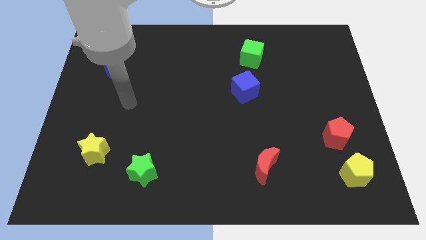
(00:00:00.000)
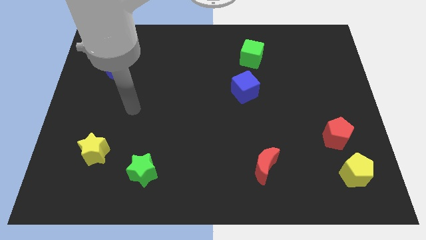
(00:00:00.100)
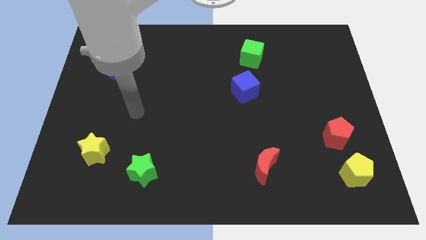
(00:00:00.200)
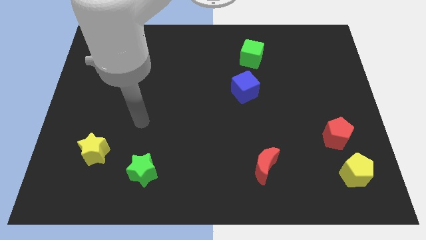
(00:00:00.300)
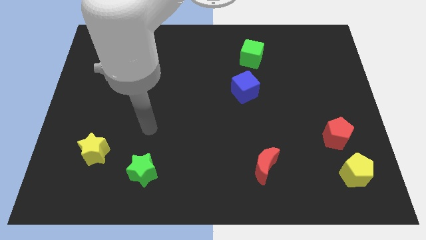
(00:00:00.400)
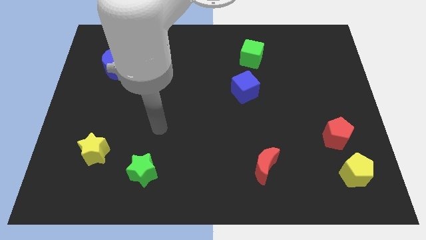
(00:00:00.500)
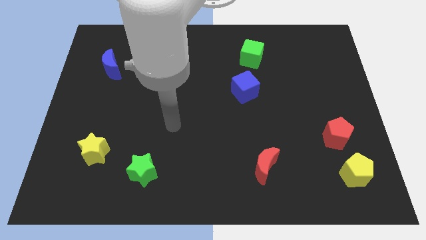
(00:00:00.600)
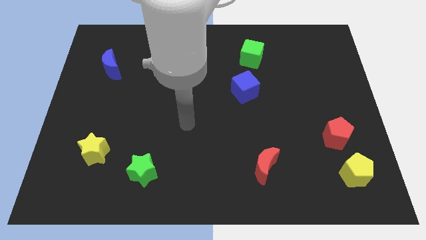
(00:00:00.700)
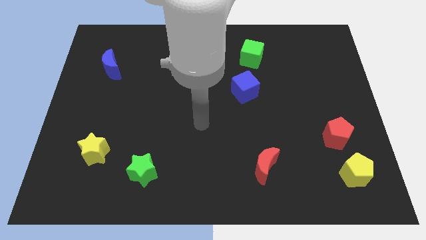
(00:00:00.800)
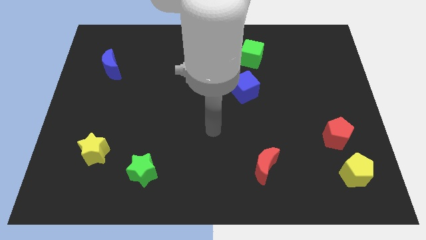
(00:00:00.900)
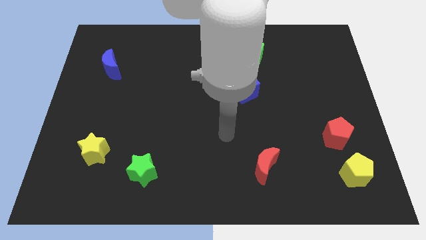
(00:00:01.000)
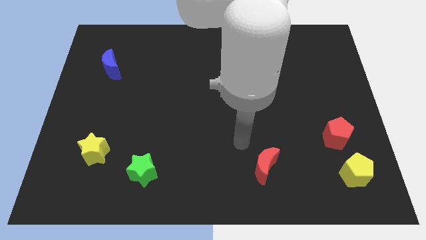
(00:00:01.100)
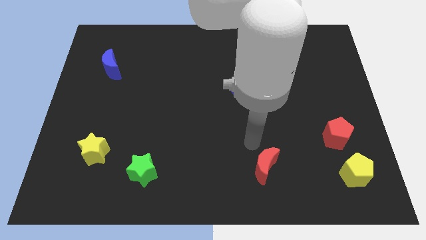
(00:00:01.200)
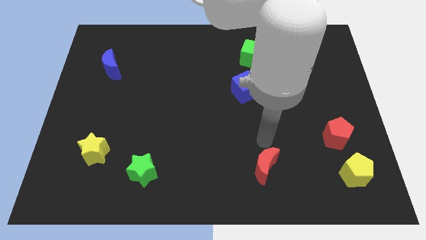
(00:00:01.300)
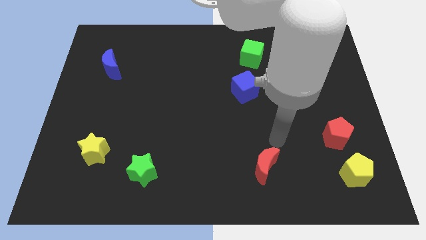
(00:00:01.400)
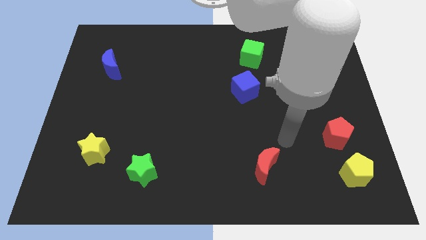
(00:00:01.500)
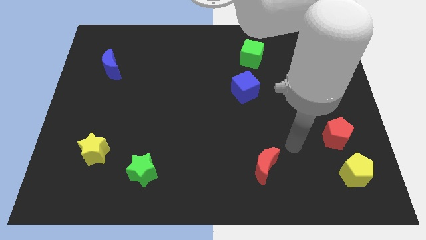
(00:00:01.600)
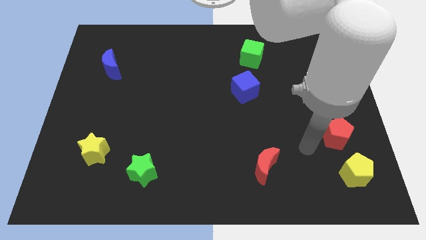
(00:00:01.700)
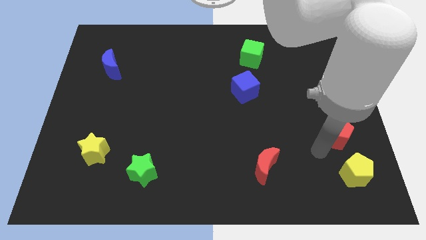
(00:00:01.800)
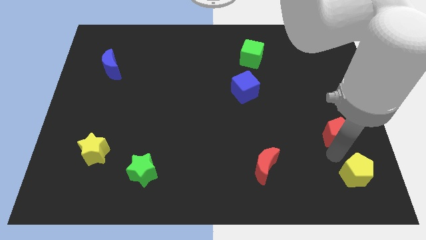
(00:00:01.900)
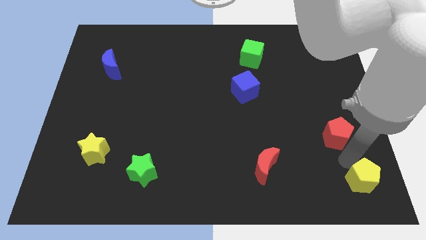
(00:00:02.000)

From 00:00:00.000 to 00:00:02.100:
pull the red pentagon apart from the yellow pentagon

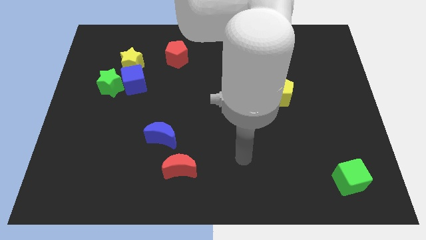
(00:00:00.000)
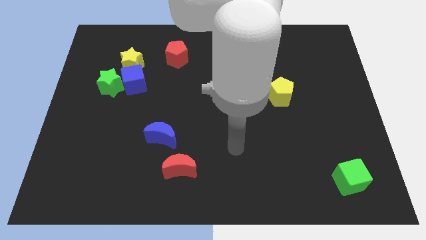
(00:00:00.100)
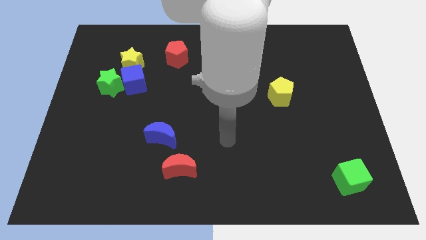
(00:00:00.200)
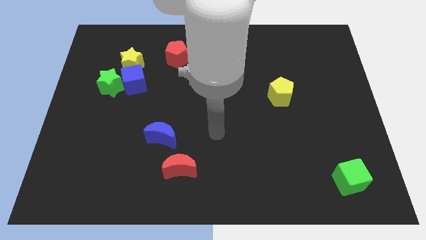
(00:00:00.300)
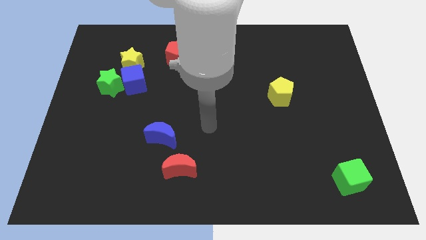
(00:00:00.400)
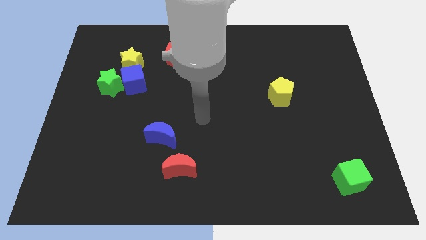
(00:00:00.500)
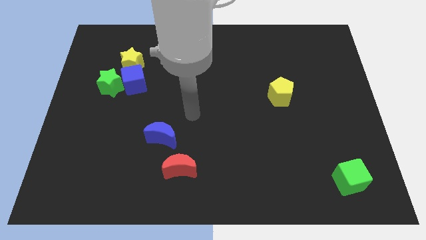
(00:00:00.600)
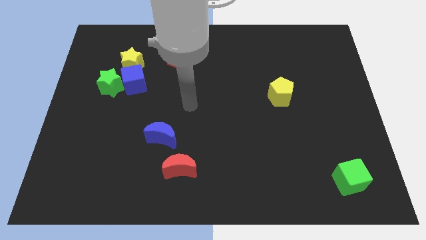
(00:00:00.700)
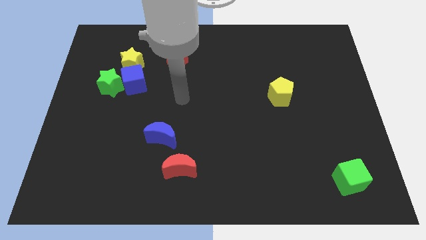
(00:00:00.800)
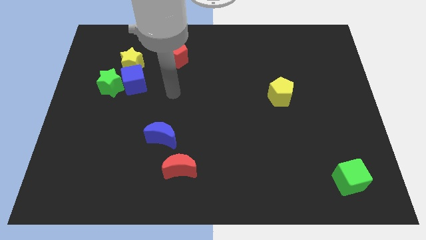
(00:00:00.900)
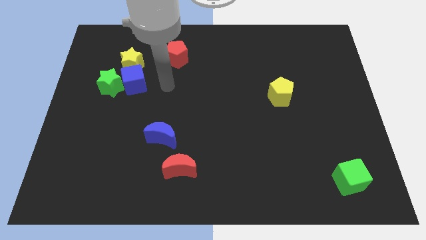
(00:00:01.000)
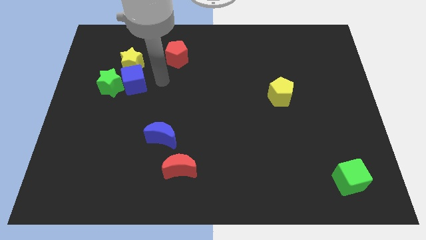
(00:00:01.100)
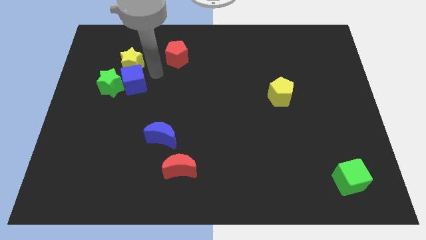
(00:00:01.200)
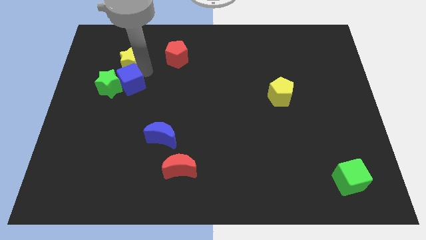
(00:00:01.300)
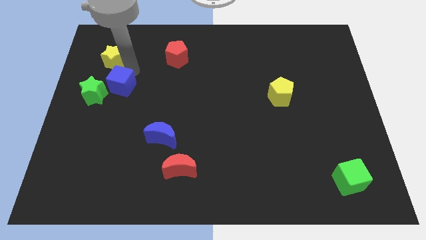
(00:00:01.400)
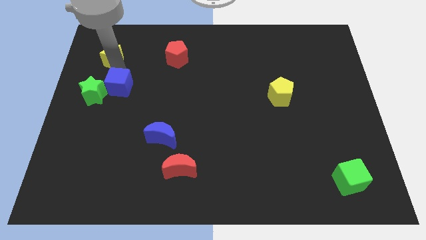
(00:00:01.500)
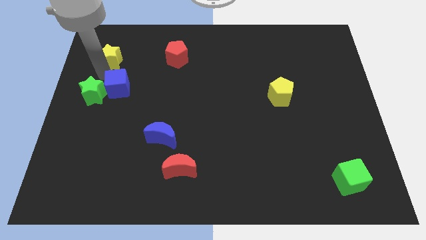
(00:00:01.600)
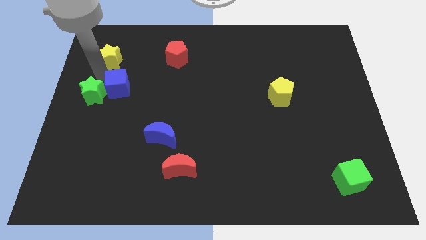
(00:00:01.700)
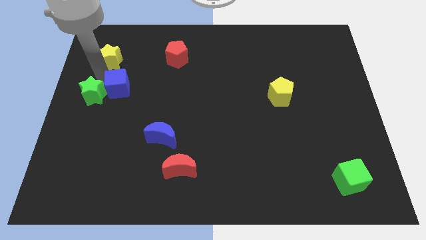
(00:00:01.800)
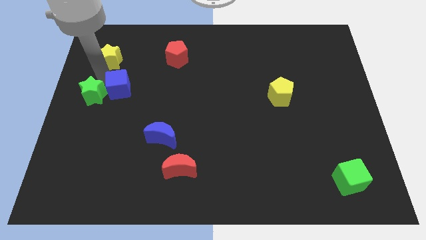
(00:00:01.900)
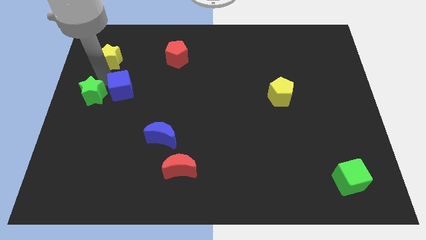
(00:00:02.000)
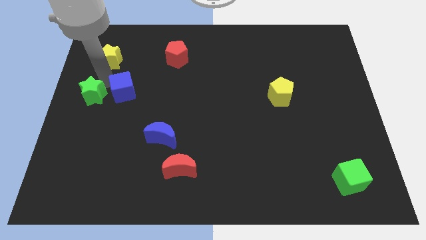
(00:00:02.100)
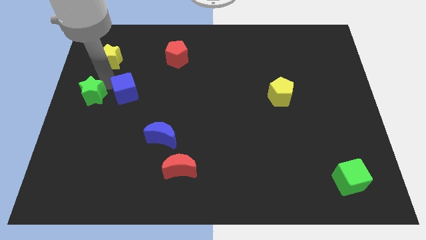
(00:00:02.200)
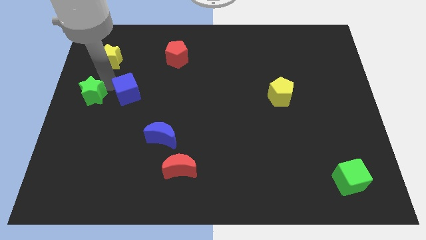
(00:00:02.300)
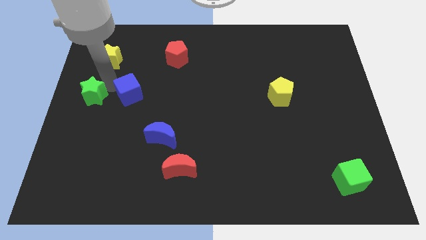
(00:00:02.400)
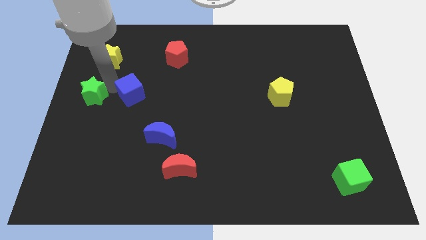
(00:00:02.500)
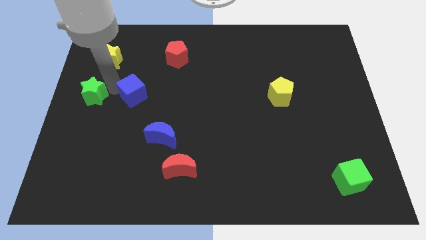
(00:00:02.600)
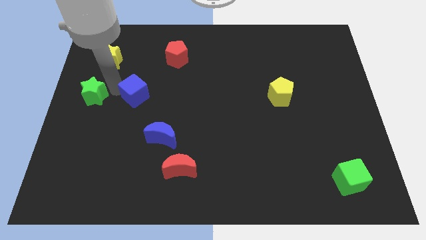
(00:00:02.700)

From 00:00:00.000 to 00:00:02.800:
move the blue cube away from the green star and yellow star

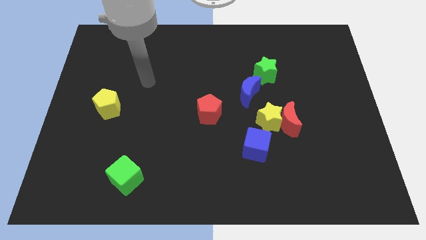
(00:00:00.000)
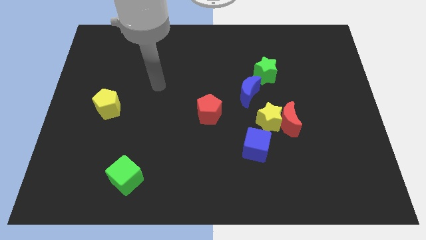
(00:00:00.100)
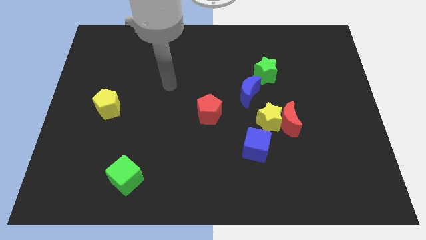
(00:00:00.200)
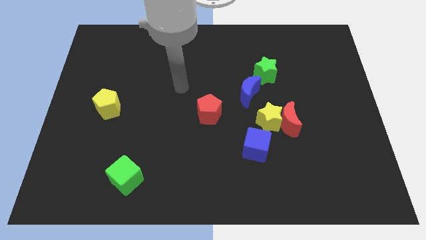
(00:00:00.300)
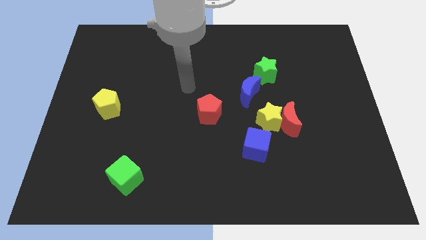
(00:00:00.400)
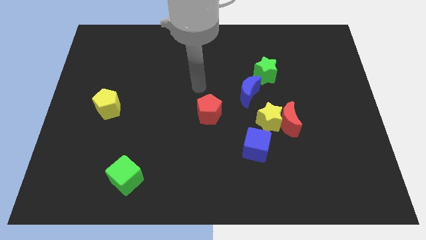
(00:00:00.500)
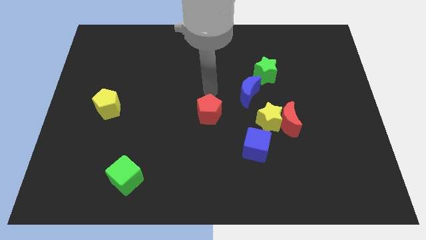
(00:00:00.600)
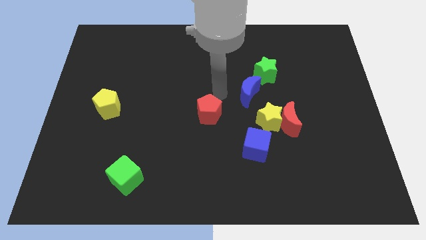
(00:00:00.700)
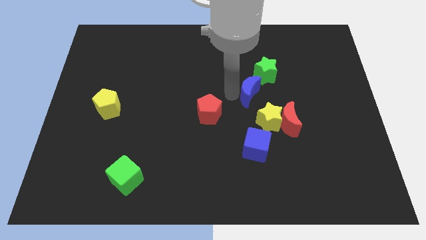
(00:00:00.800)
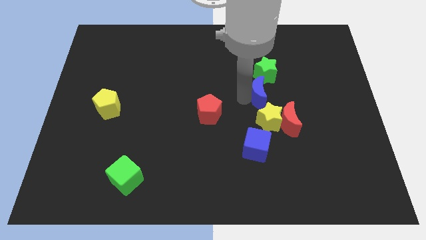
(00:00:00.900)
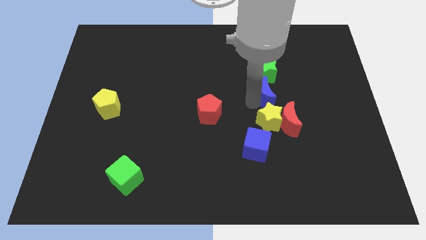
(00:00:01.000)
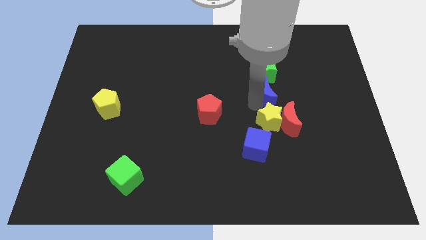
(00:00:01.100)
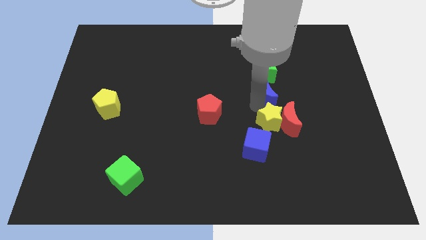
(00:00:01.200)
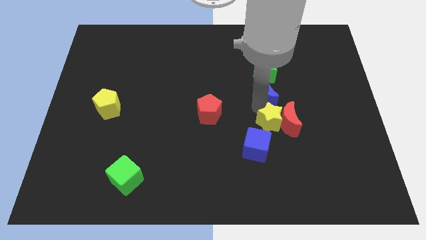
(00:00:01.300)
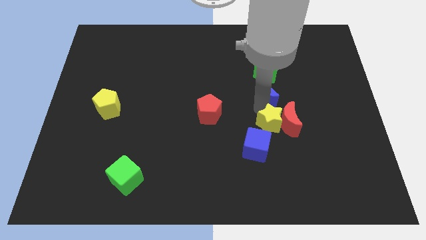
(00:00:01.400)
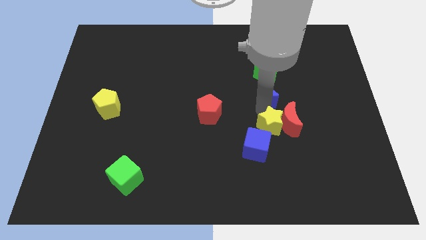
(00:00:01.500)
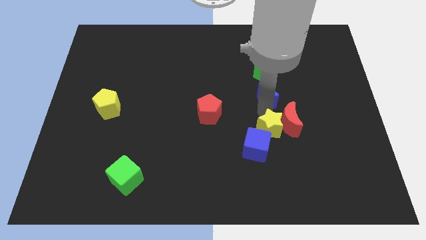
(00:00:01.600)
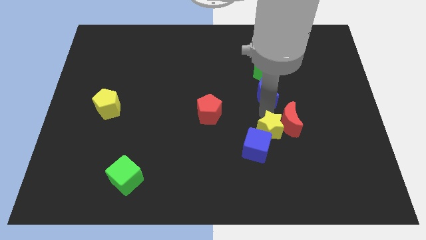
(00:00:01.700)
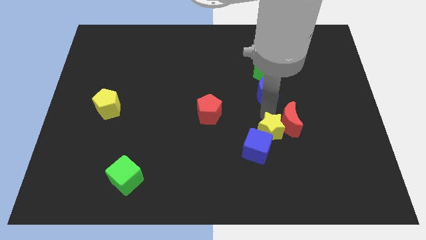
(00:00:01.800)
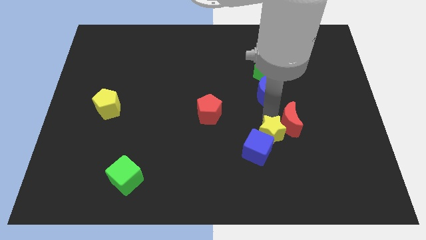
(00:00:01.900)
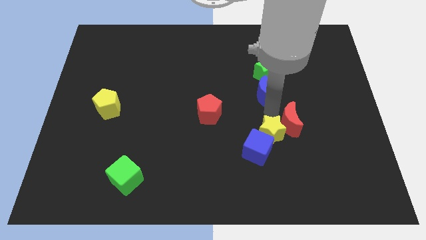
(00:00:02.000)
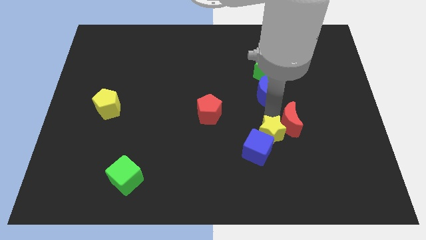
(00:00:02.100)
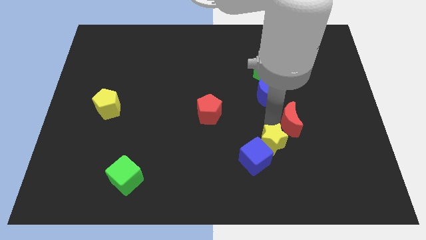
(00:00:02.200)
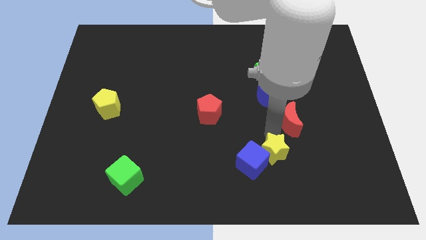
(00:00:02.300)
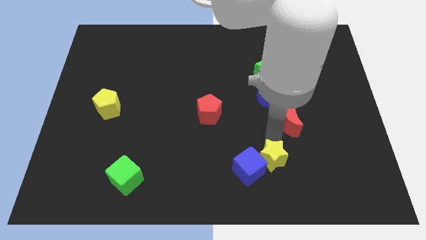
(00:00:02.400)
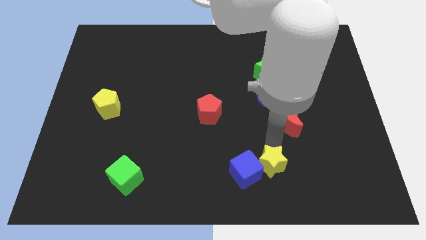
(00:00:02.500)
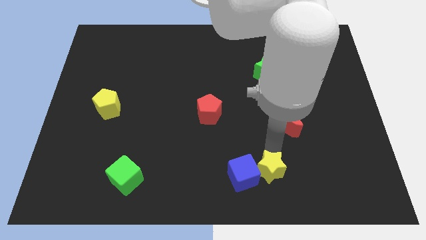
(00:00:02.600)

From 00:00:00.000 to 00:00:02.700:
move the yellow star away from the group of blocks

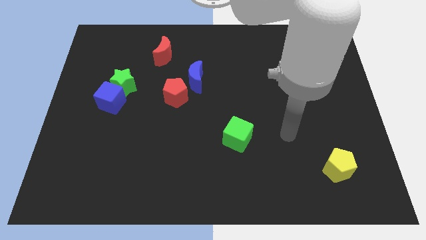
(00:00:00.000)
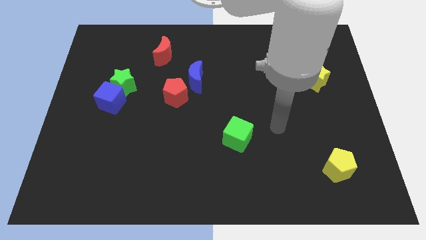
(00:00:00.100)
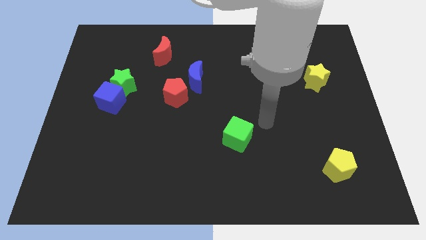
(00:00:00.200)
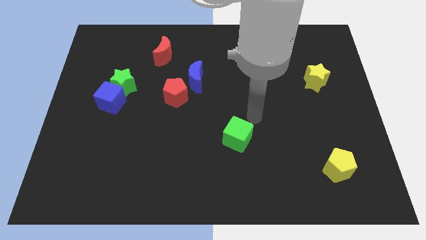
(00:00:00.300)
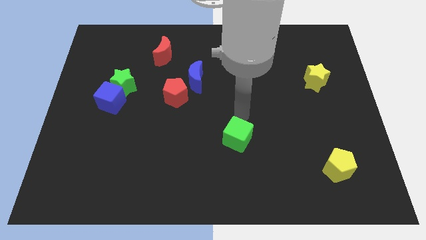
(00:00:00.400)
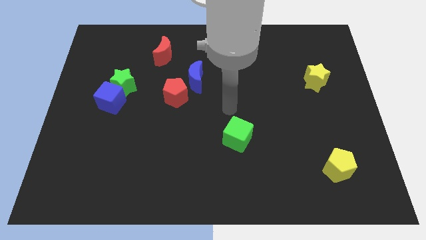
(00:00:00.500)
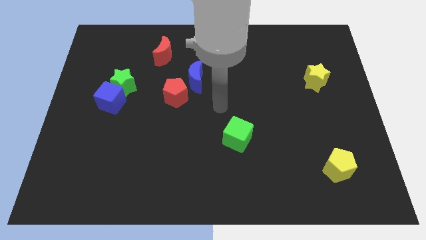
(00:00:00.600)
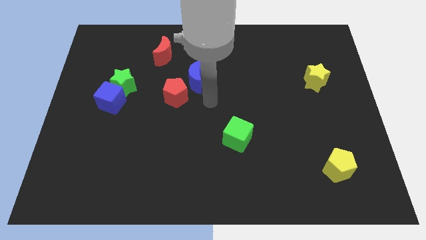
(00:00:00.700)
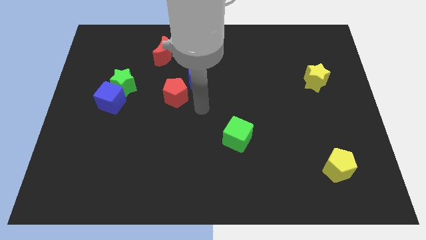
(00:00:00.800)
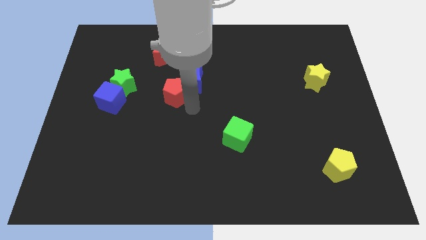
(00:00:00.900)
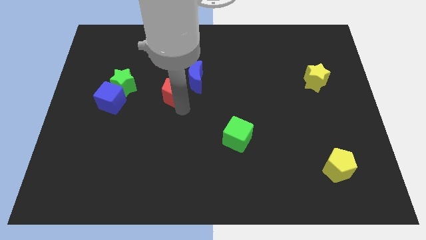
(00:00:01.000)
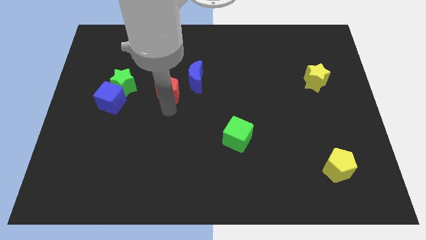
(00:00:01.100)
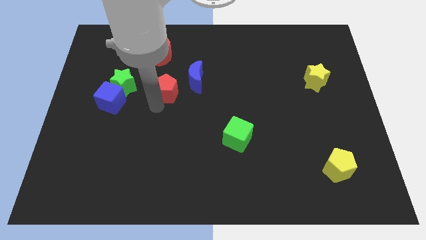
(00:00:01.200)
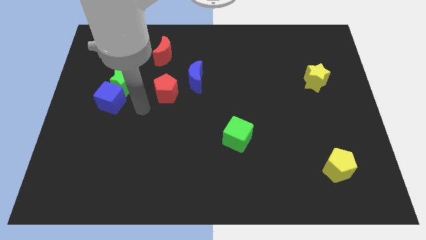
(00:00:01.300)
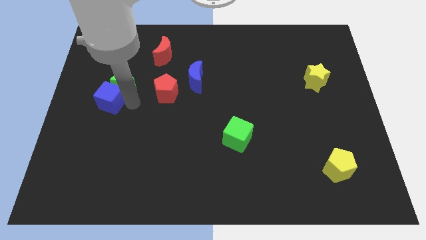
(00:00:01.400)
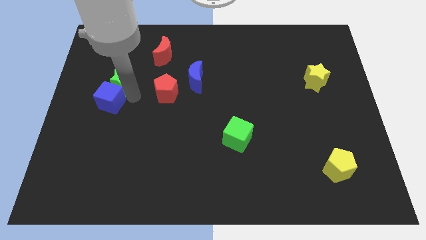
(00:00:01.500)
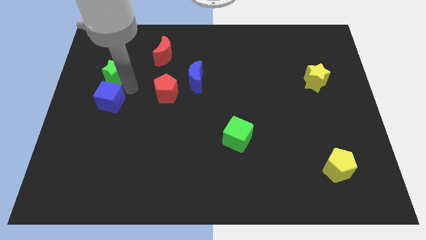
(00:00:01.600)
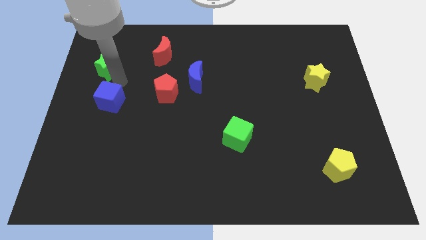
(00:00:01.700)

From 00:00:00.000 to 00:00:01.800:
move the blue cube away from the green star
